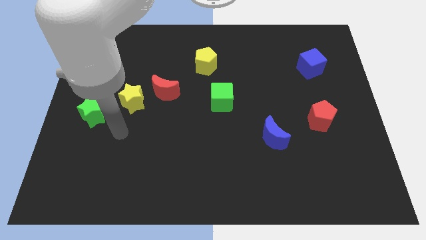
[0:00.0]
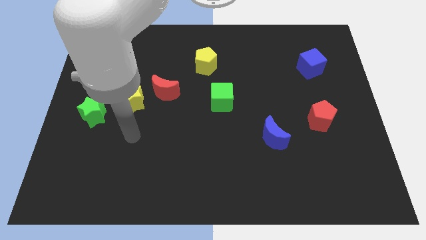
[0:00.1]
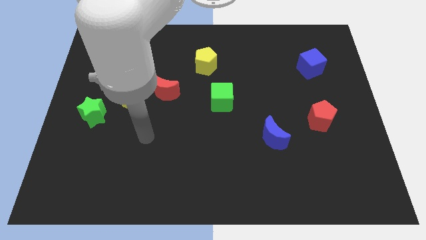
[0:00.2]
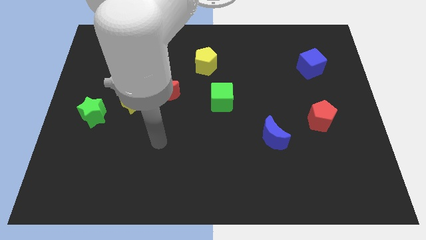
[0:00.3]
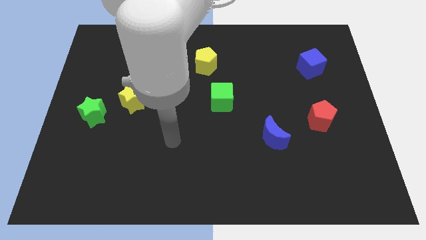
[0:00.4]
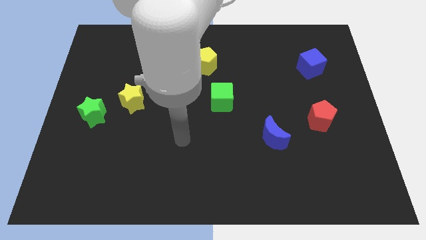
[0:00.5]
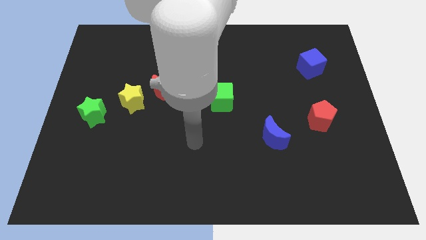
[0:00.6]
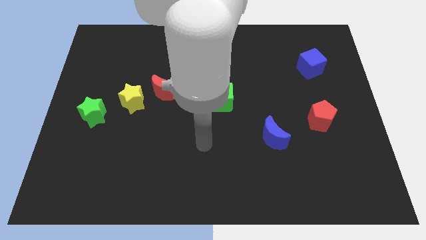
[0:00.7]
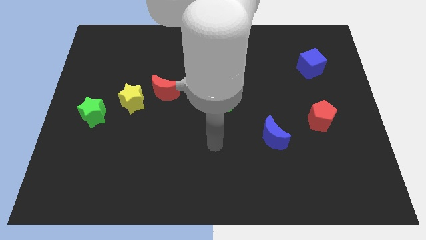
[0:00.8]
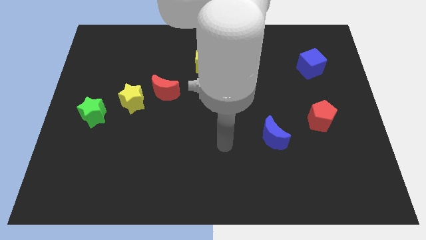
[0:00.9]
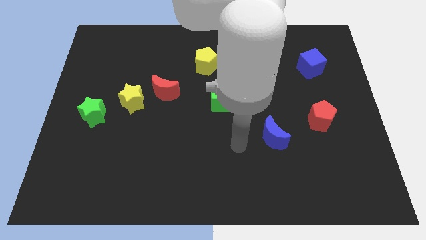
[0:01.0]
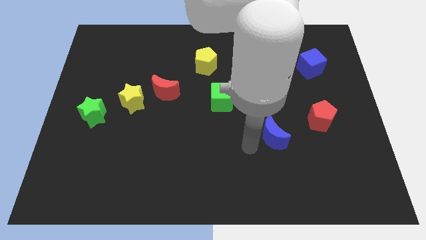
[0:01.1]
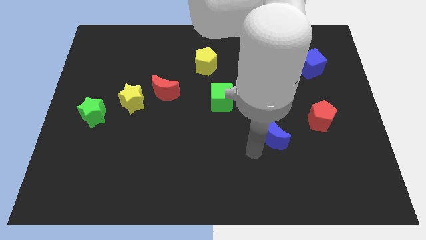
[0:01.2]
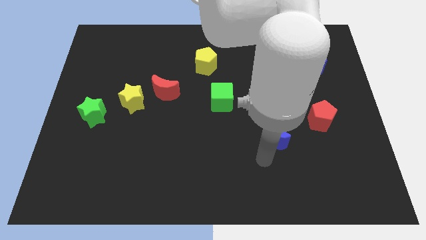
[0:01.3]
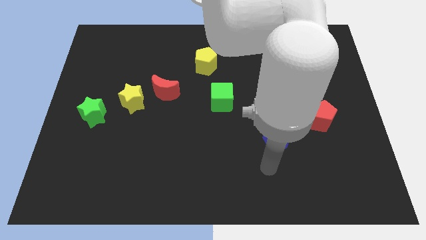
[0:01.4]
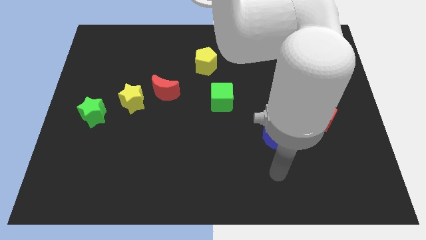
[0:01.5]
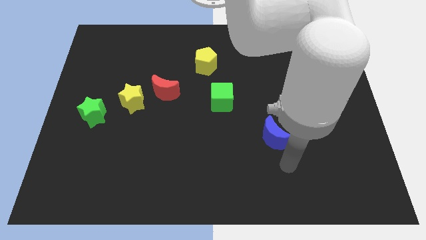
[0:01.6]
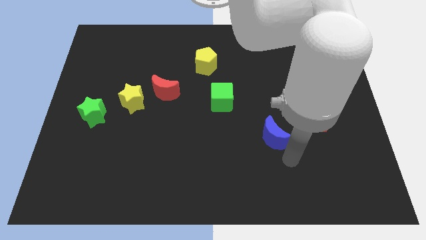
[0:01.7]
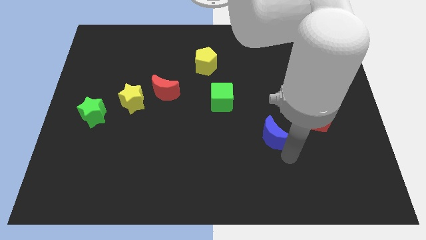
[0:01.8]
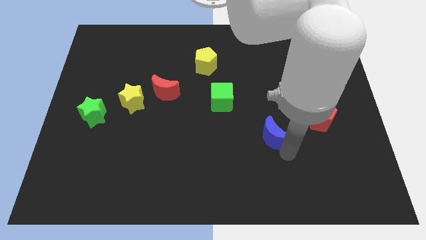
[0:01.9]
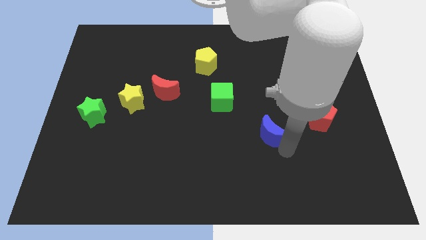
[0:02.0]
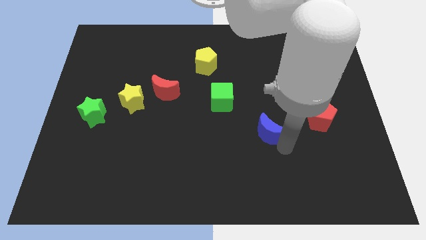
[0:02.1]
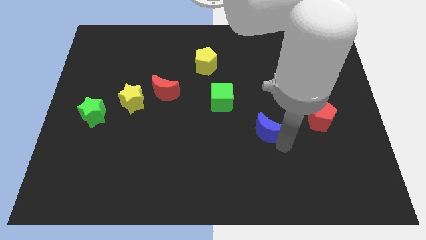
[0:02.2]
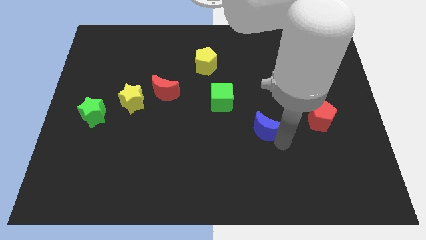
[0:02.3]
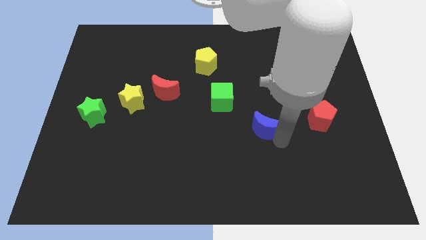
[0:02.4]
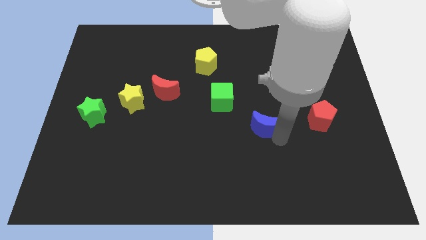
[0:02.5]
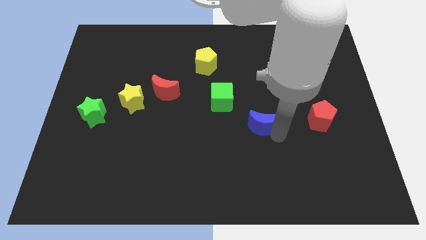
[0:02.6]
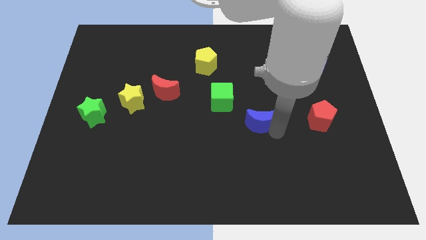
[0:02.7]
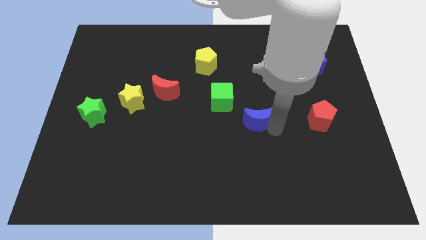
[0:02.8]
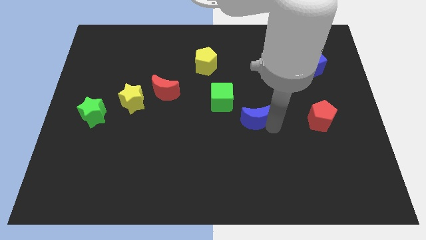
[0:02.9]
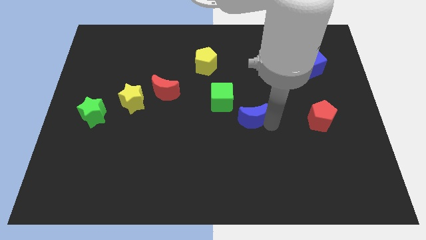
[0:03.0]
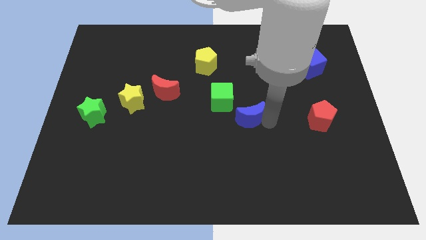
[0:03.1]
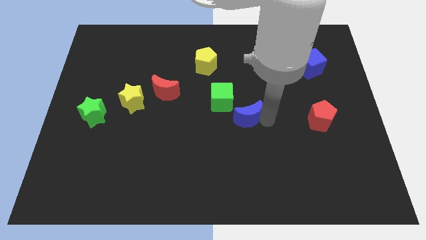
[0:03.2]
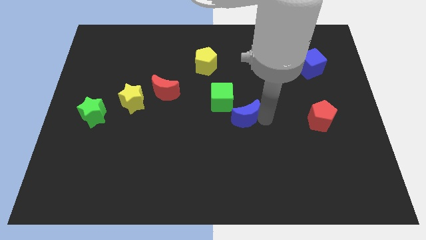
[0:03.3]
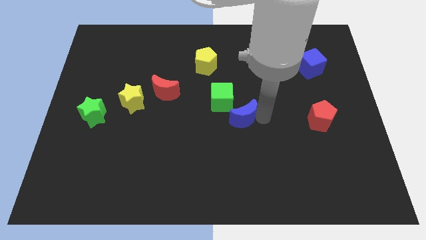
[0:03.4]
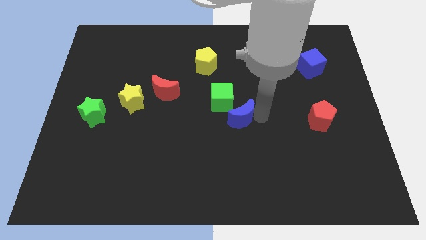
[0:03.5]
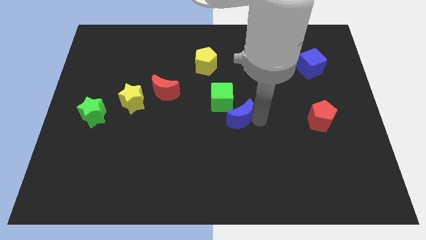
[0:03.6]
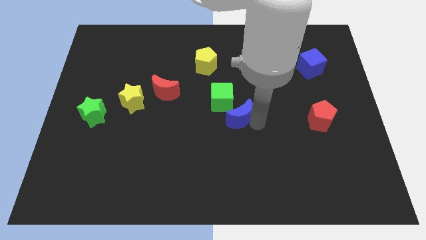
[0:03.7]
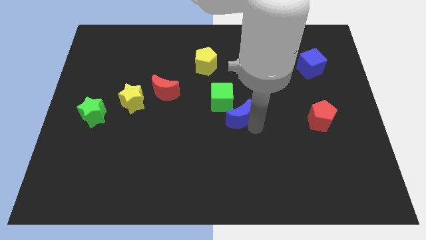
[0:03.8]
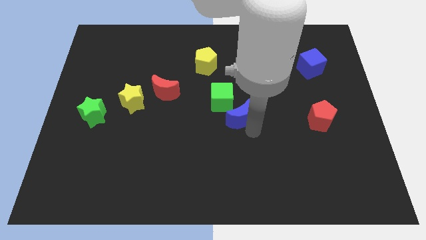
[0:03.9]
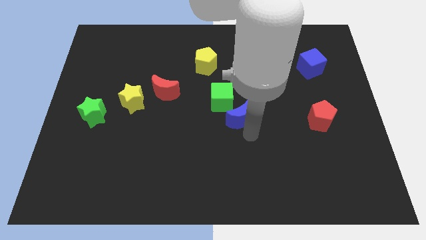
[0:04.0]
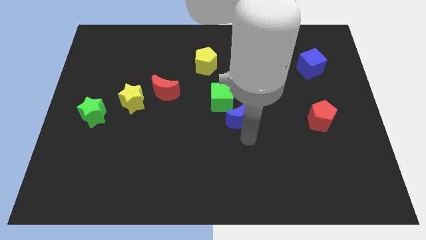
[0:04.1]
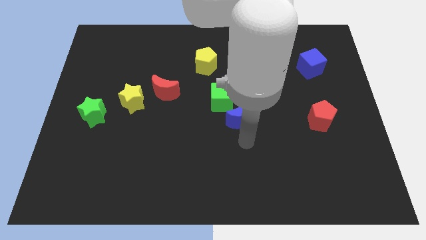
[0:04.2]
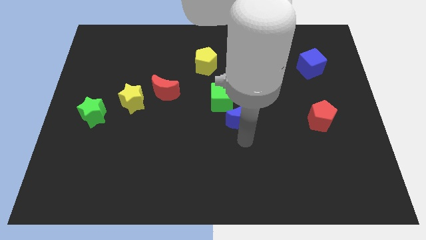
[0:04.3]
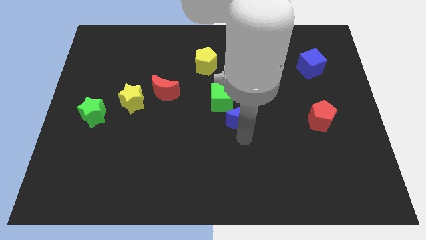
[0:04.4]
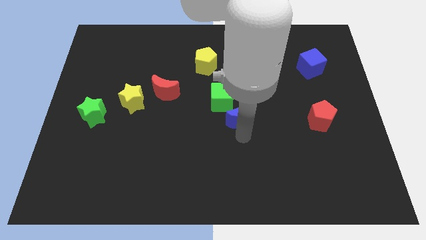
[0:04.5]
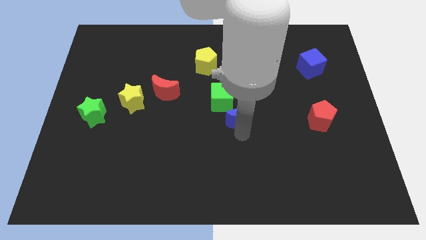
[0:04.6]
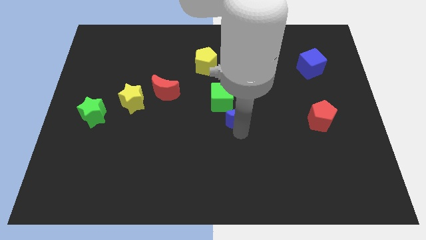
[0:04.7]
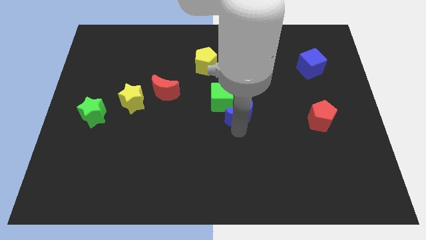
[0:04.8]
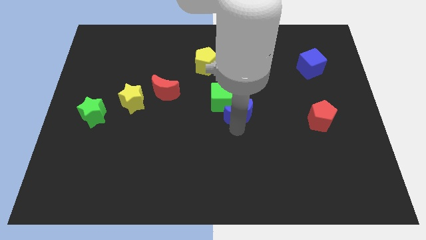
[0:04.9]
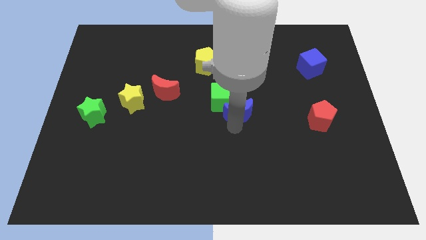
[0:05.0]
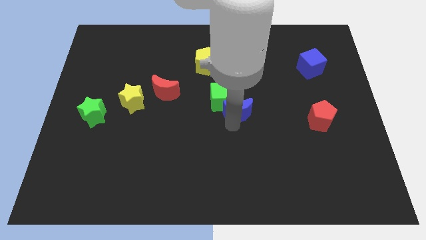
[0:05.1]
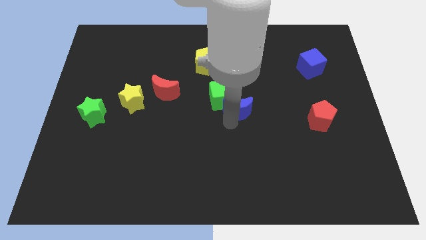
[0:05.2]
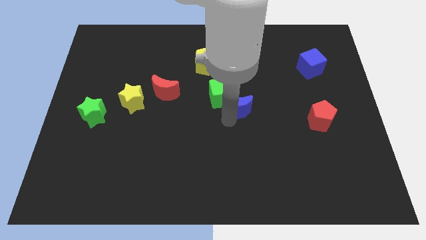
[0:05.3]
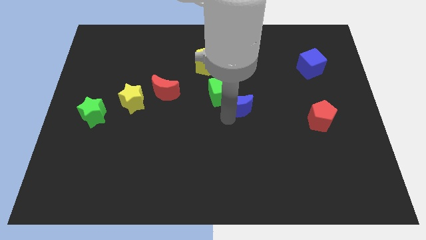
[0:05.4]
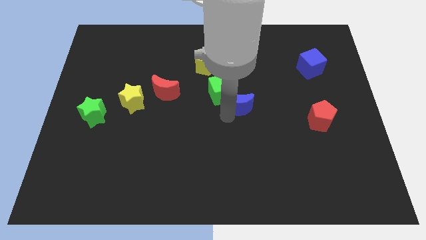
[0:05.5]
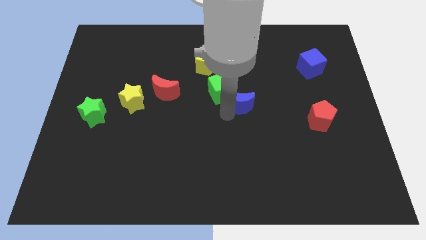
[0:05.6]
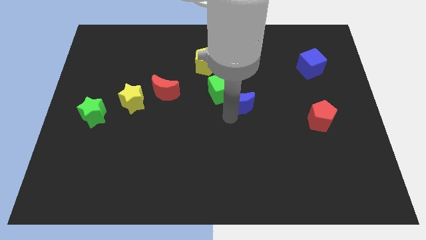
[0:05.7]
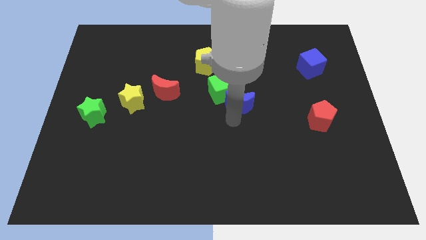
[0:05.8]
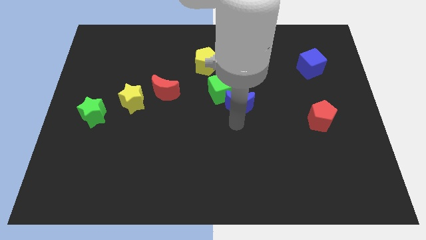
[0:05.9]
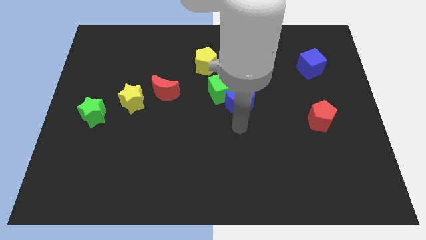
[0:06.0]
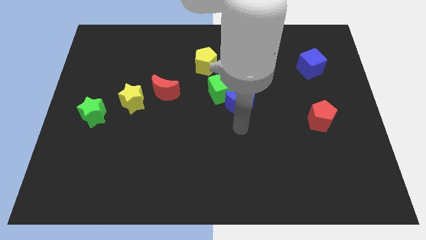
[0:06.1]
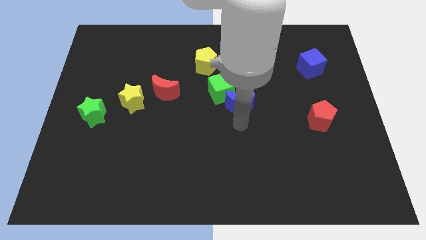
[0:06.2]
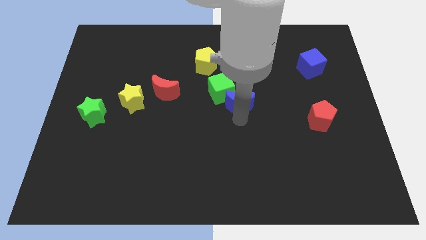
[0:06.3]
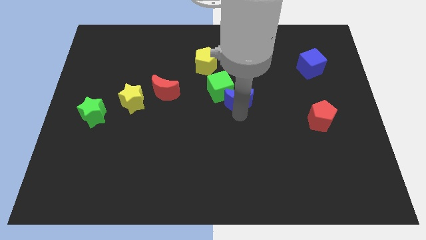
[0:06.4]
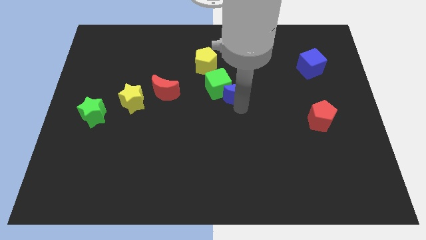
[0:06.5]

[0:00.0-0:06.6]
move the blue moon to the bottom right of the yellow pentagon
